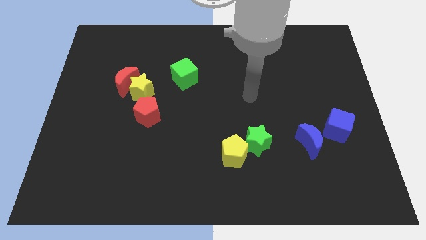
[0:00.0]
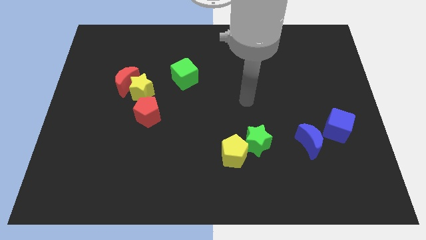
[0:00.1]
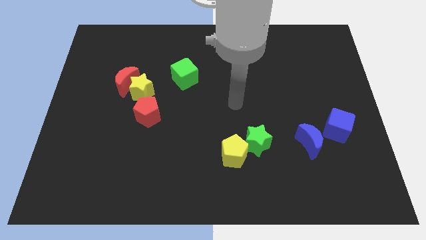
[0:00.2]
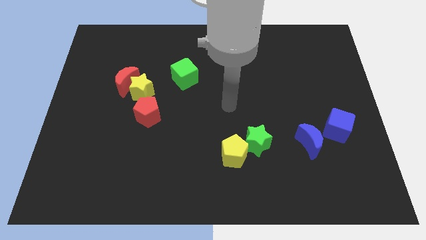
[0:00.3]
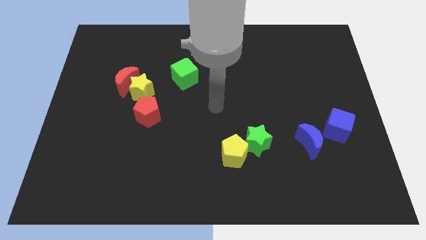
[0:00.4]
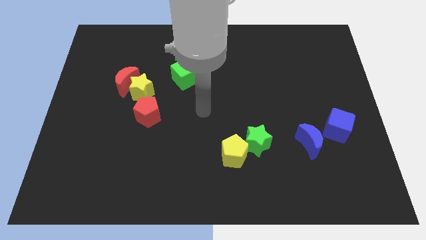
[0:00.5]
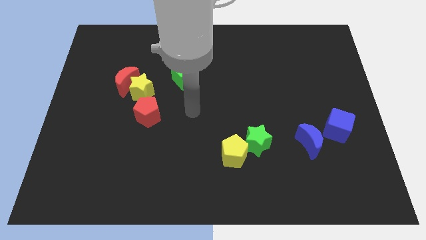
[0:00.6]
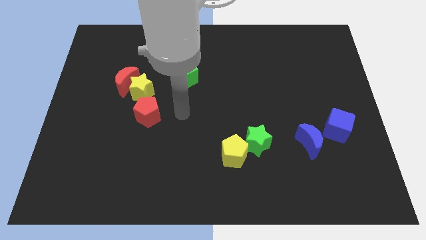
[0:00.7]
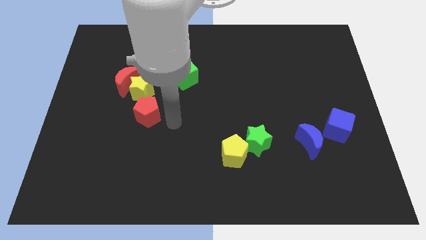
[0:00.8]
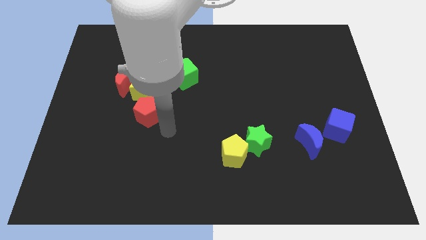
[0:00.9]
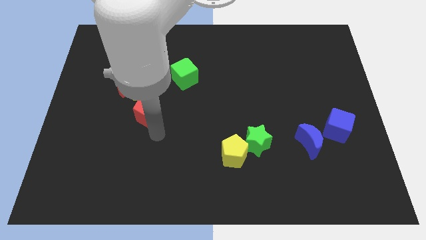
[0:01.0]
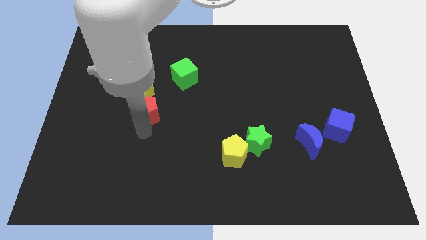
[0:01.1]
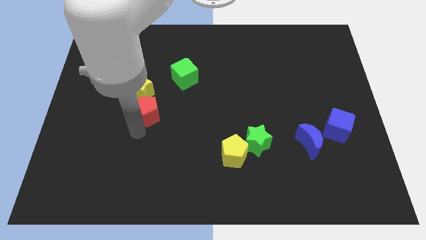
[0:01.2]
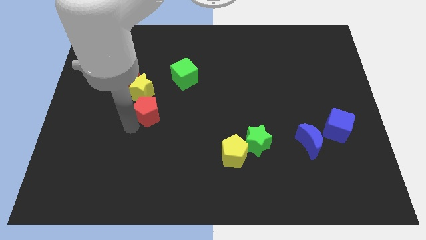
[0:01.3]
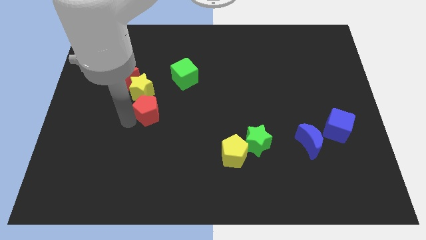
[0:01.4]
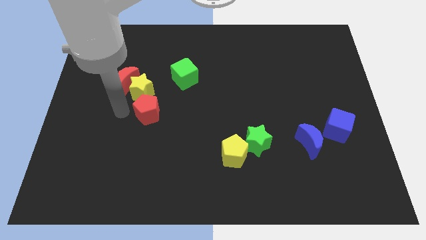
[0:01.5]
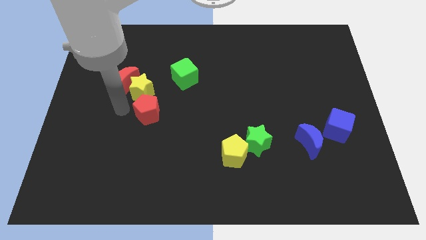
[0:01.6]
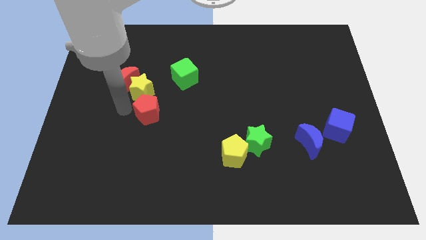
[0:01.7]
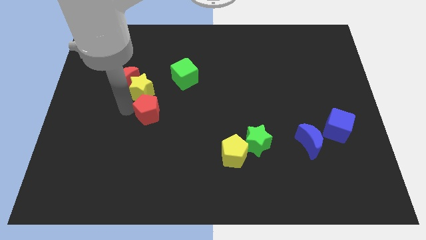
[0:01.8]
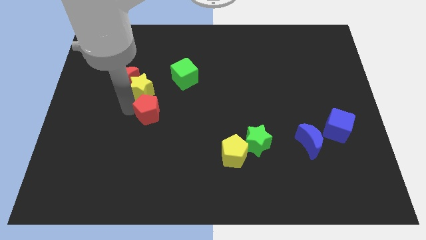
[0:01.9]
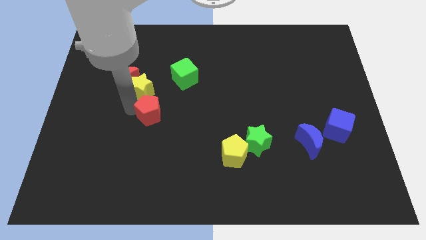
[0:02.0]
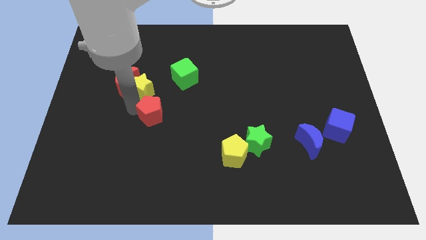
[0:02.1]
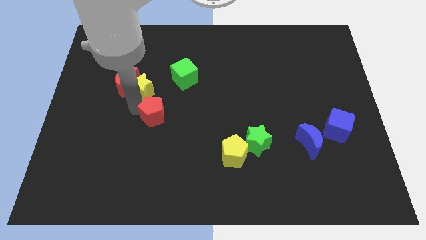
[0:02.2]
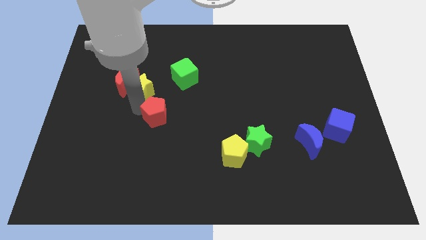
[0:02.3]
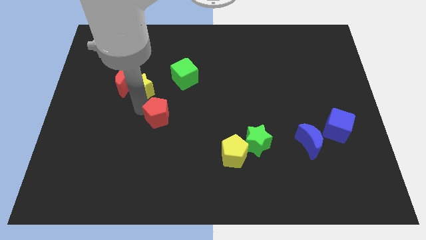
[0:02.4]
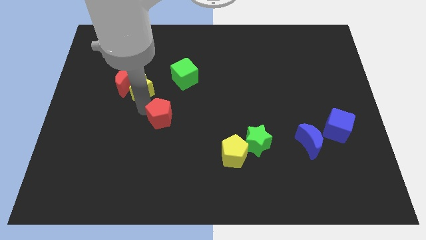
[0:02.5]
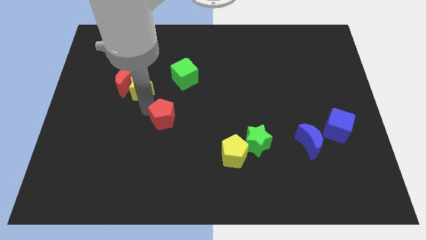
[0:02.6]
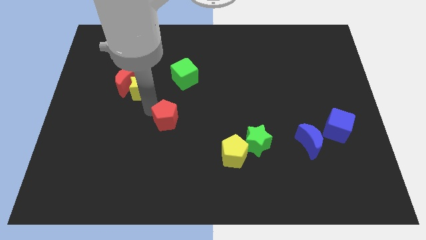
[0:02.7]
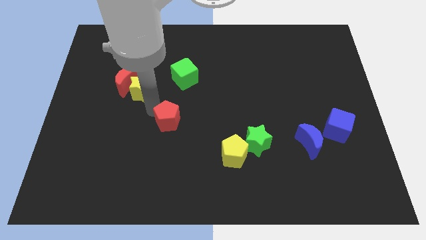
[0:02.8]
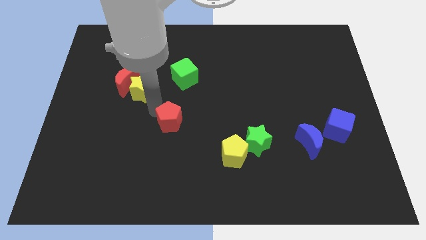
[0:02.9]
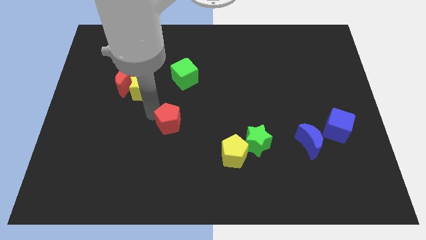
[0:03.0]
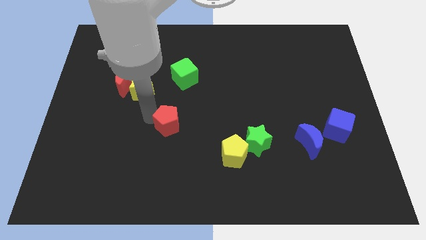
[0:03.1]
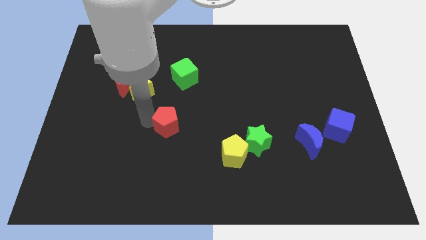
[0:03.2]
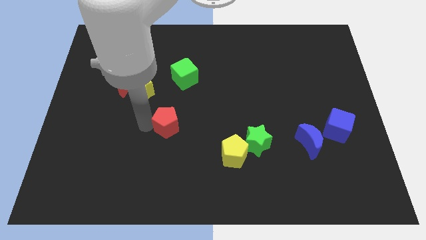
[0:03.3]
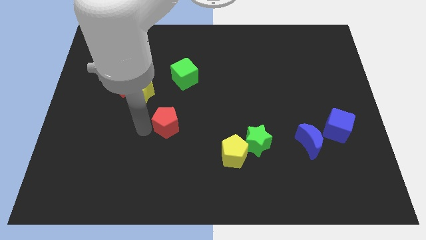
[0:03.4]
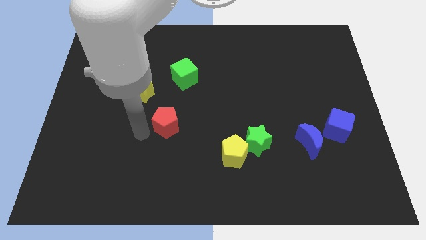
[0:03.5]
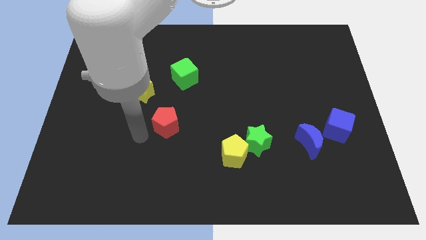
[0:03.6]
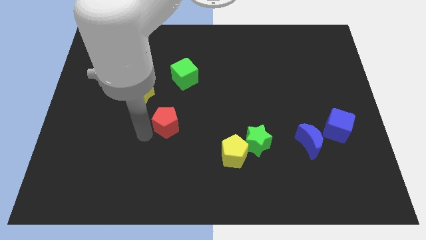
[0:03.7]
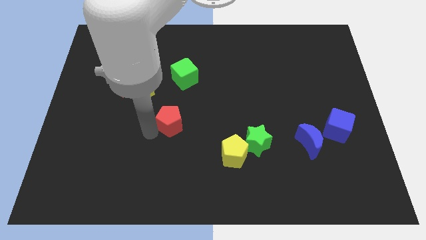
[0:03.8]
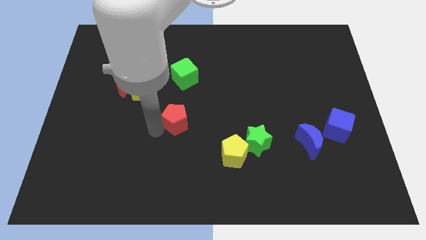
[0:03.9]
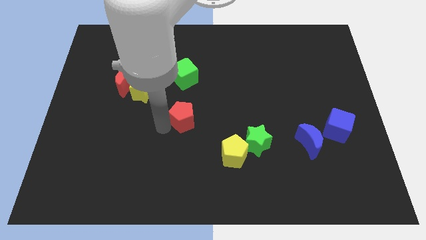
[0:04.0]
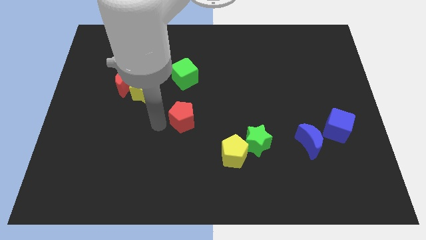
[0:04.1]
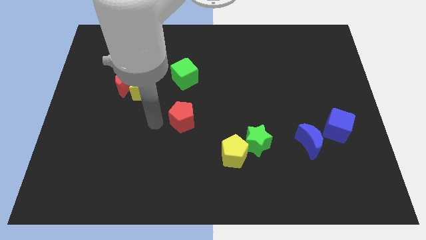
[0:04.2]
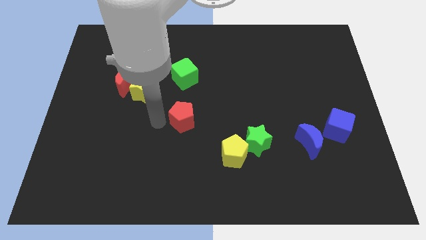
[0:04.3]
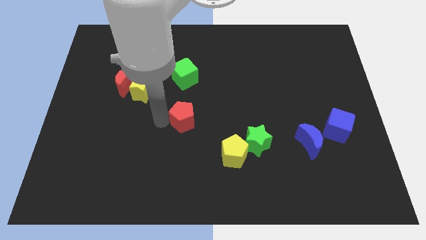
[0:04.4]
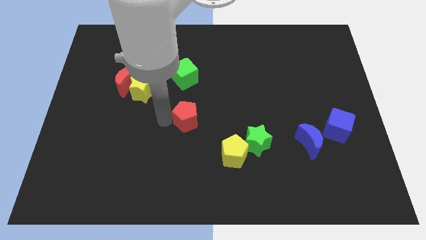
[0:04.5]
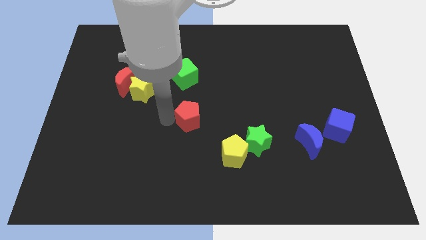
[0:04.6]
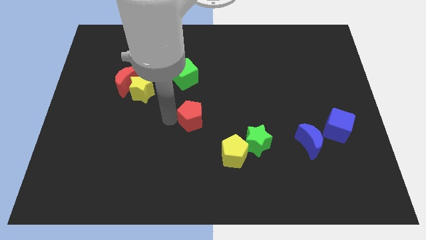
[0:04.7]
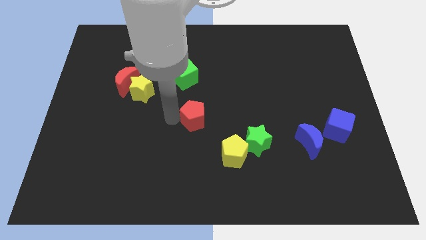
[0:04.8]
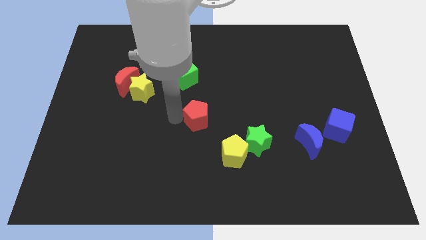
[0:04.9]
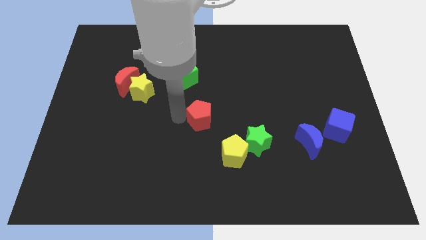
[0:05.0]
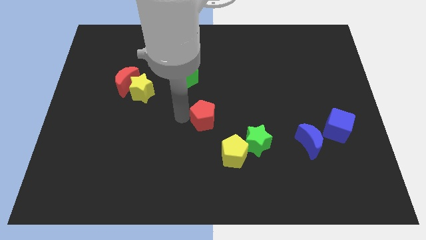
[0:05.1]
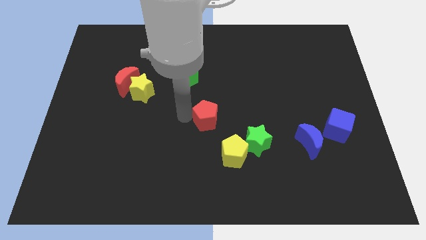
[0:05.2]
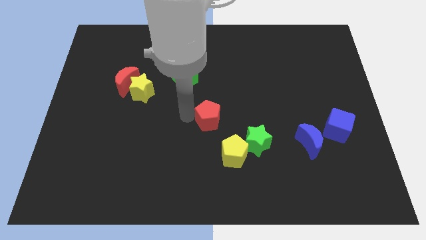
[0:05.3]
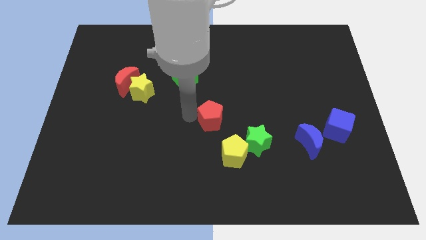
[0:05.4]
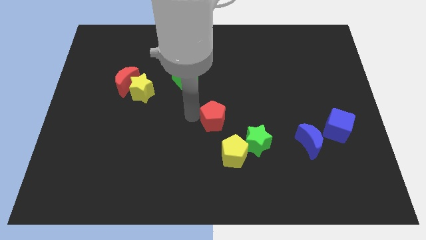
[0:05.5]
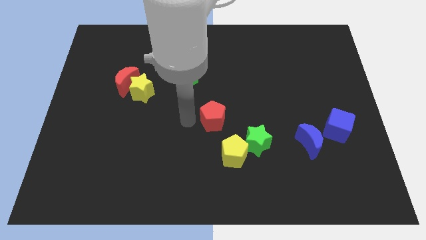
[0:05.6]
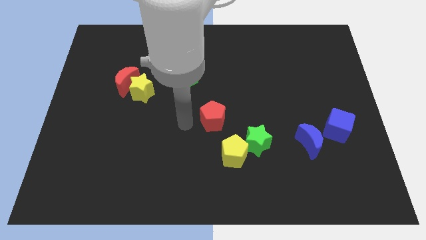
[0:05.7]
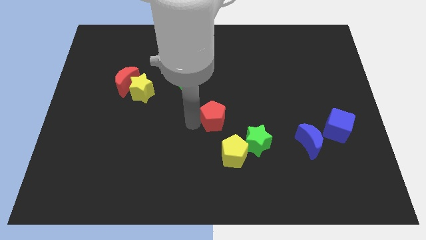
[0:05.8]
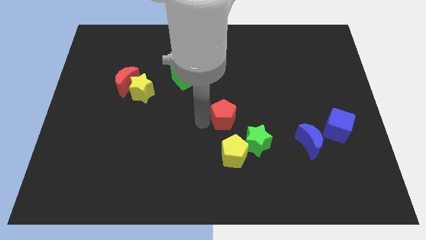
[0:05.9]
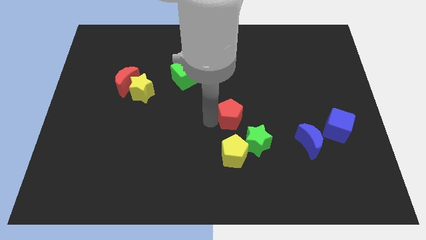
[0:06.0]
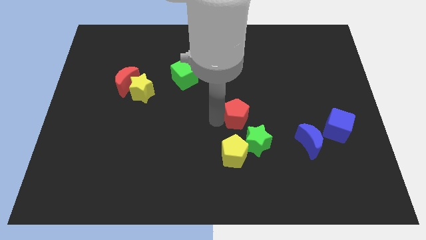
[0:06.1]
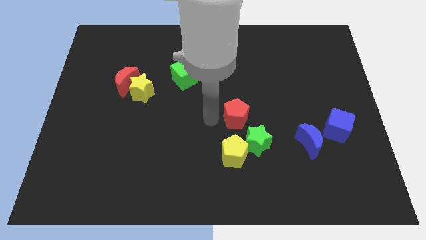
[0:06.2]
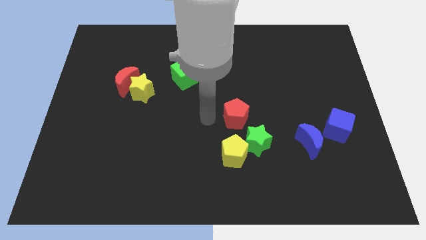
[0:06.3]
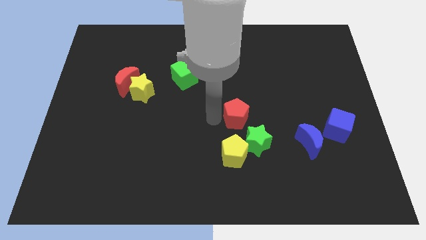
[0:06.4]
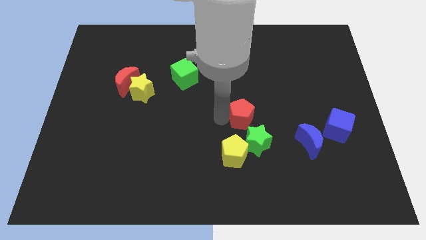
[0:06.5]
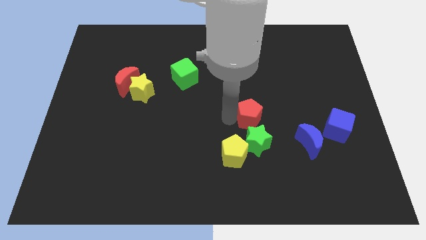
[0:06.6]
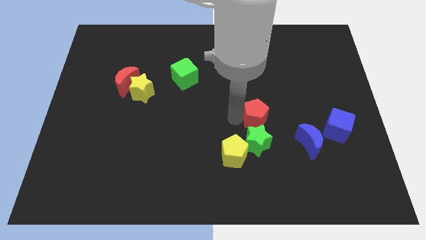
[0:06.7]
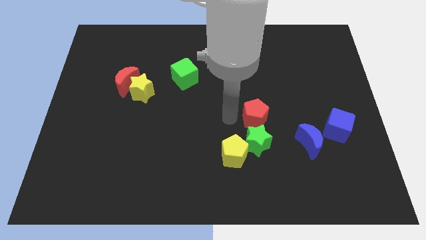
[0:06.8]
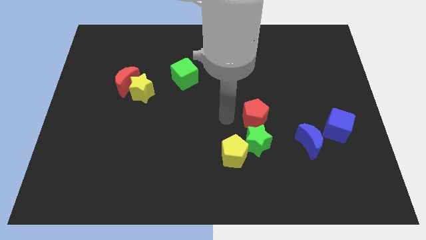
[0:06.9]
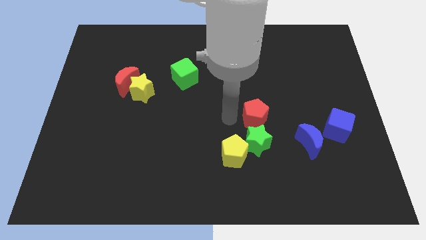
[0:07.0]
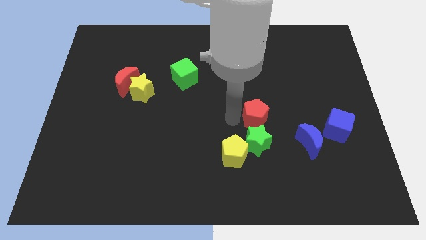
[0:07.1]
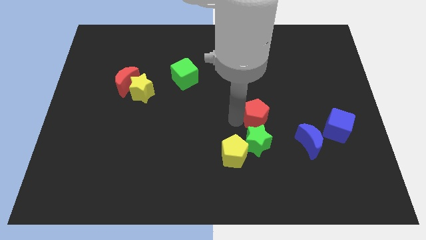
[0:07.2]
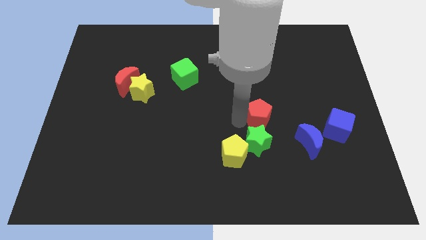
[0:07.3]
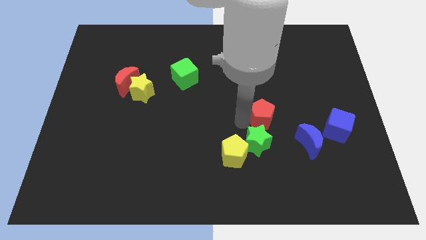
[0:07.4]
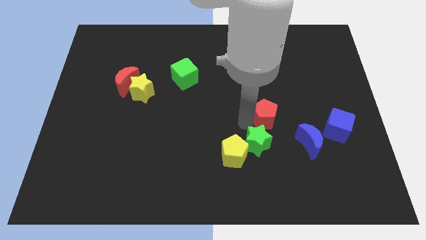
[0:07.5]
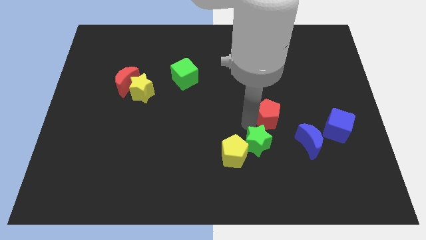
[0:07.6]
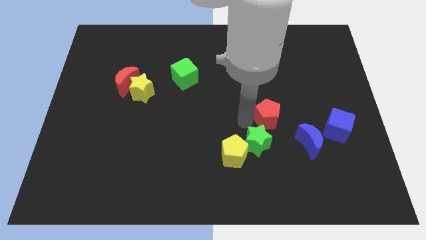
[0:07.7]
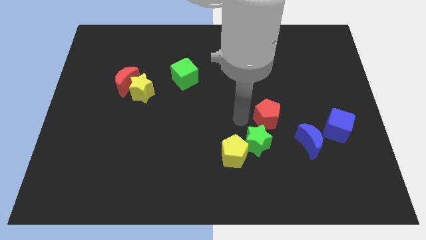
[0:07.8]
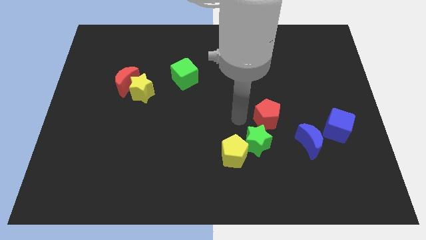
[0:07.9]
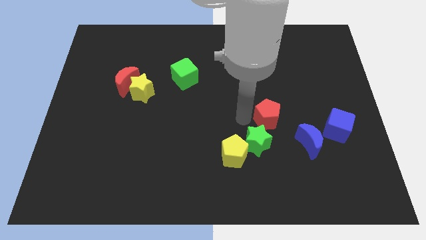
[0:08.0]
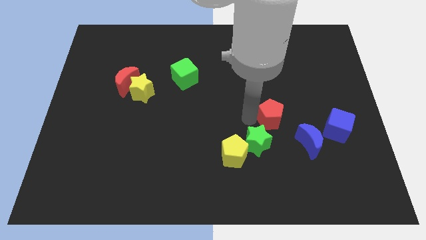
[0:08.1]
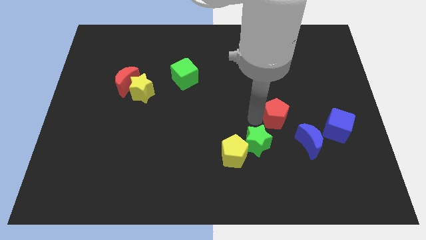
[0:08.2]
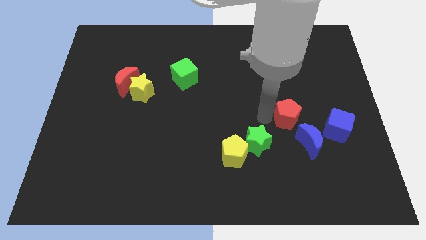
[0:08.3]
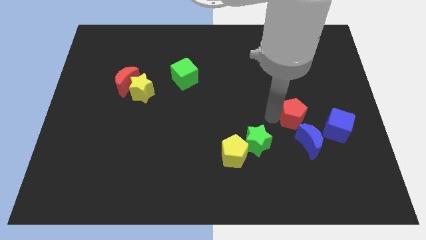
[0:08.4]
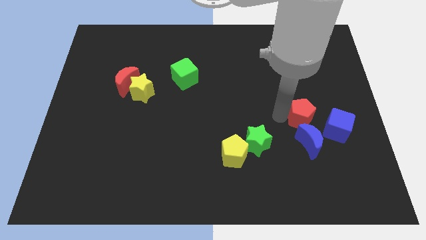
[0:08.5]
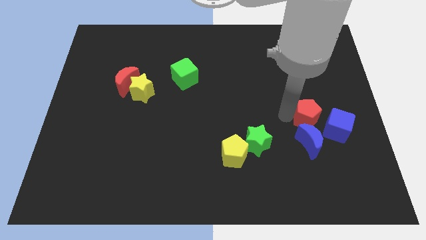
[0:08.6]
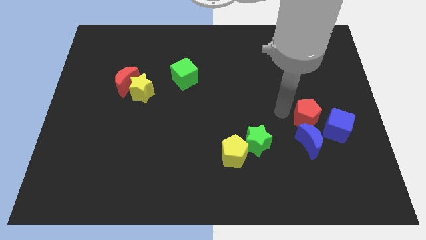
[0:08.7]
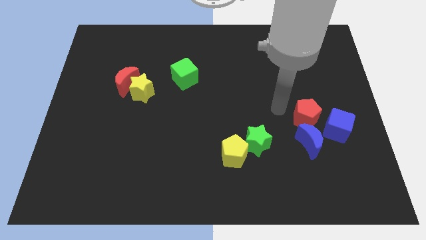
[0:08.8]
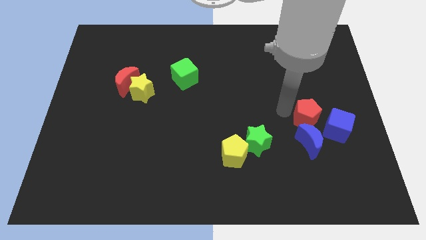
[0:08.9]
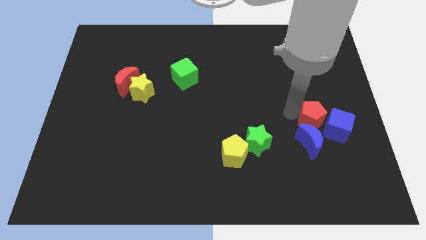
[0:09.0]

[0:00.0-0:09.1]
move the red pentagon close to the blue cube
